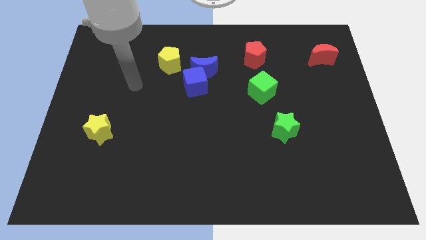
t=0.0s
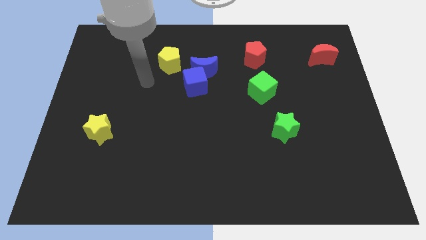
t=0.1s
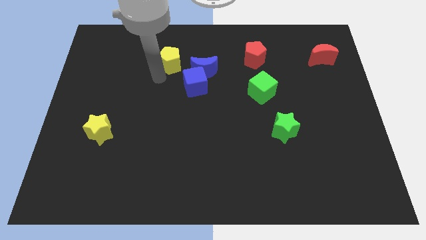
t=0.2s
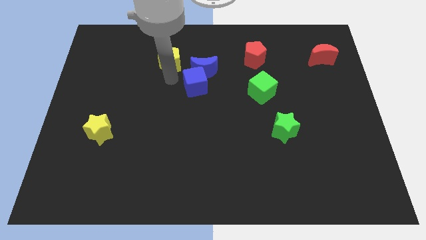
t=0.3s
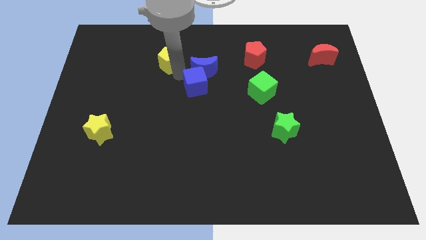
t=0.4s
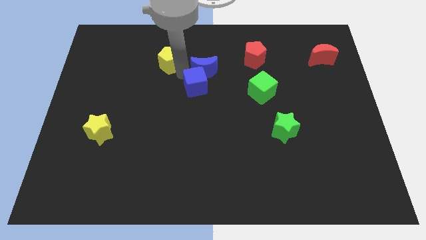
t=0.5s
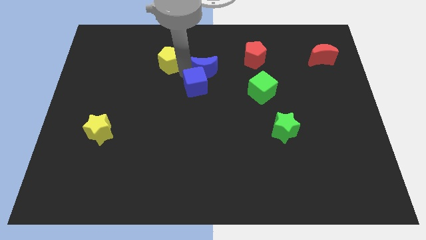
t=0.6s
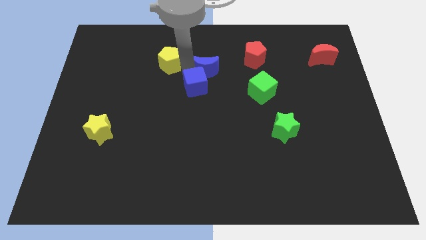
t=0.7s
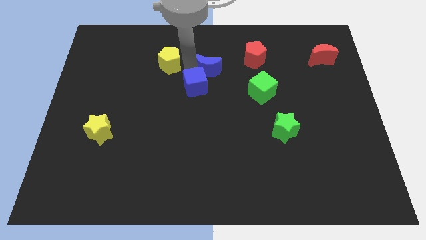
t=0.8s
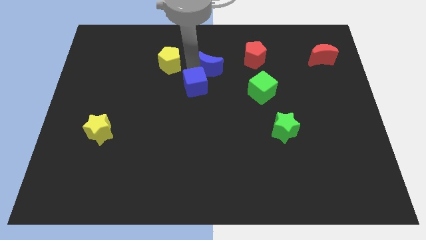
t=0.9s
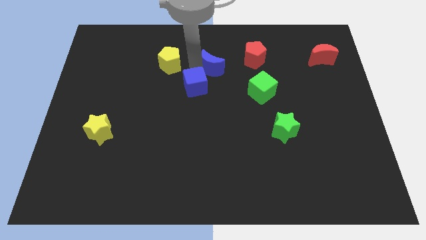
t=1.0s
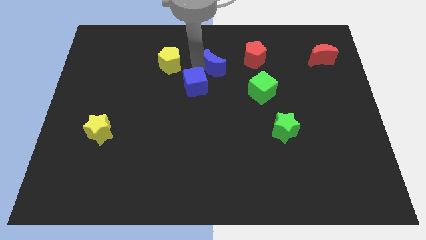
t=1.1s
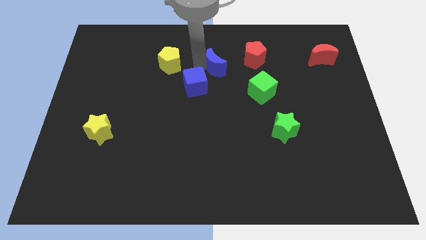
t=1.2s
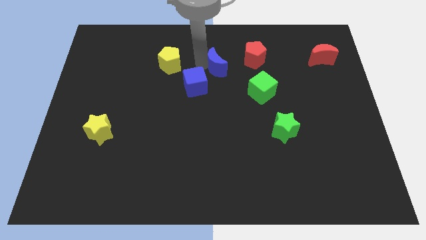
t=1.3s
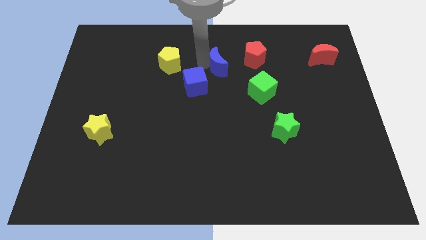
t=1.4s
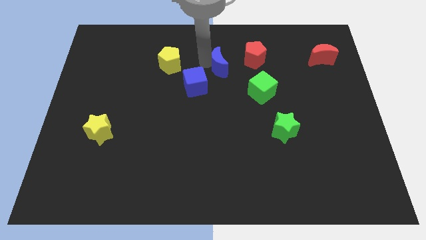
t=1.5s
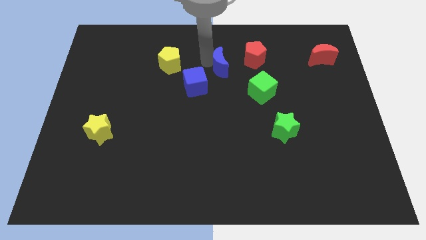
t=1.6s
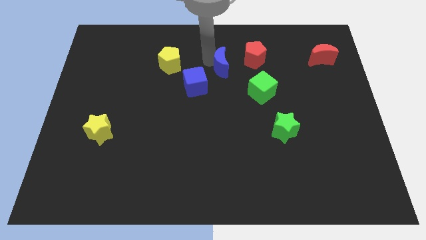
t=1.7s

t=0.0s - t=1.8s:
separate the blue moon from the blue cube and yellow pentagon

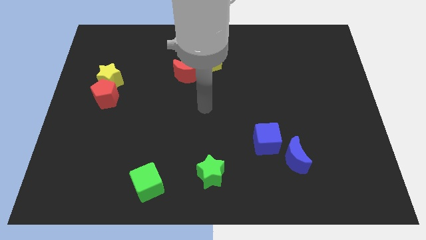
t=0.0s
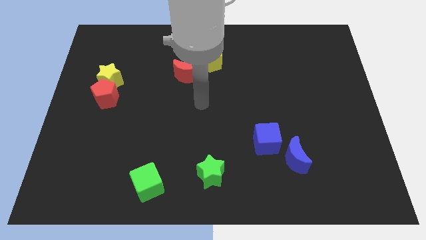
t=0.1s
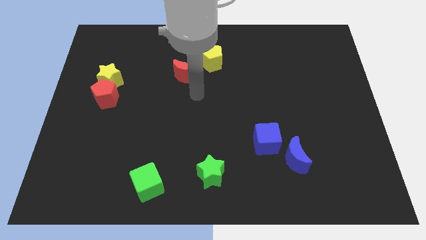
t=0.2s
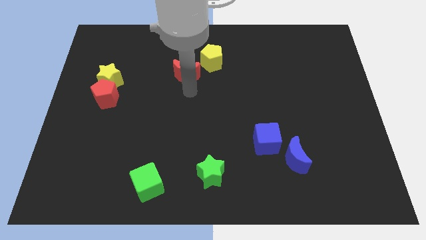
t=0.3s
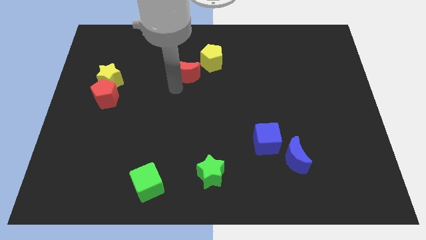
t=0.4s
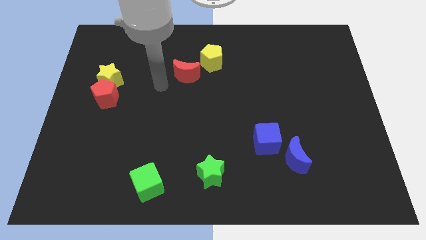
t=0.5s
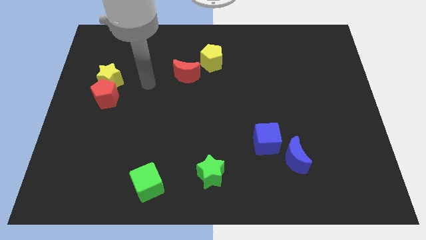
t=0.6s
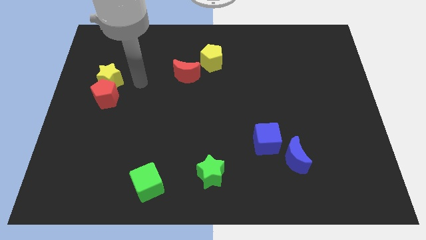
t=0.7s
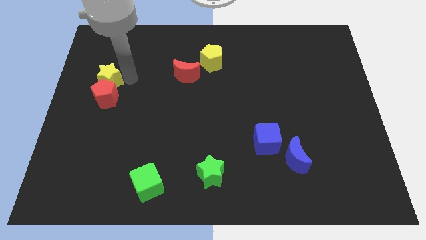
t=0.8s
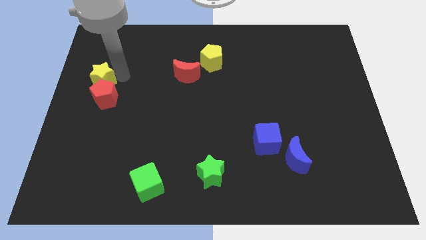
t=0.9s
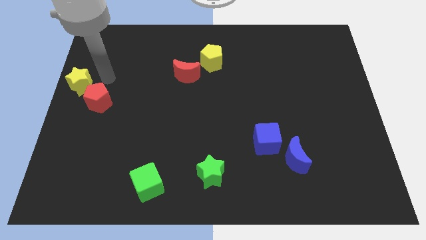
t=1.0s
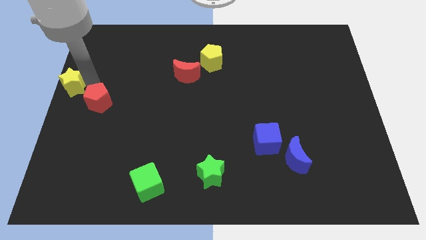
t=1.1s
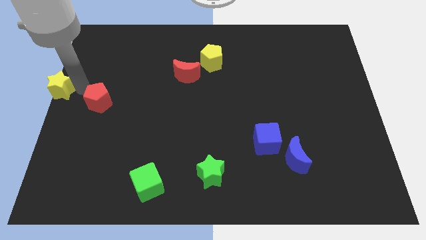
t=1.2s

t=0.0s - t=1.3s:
move the red pentagon away from the yellow star

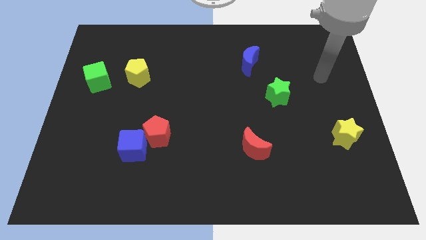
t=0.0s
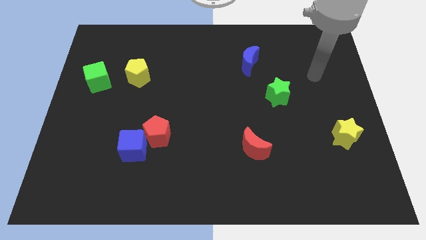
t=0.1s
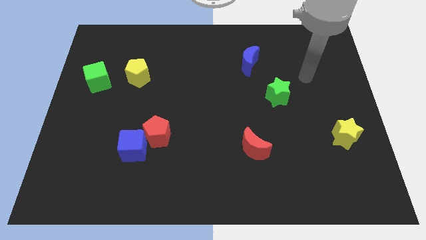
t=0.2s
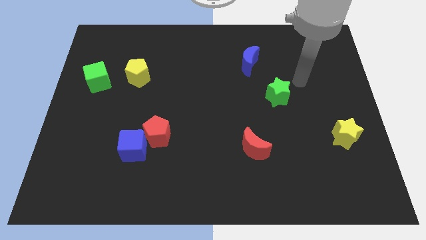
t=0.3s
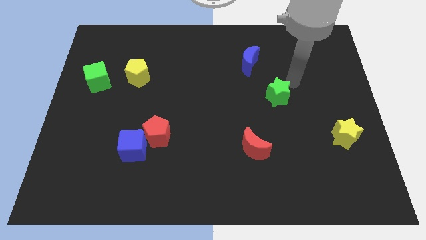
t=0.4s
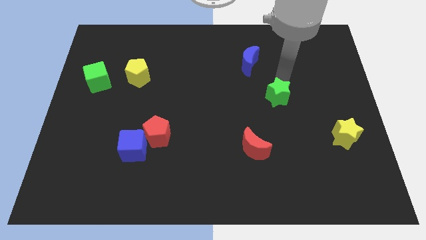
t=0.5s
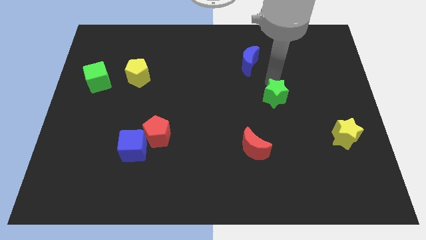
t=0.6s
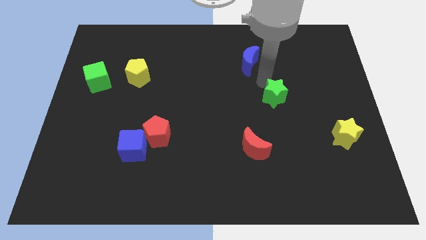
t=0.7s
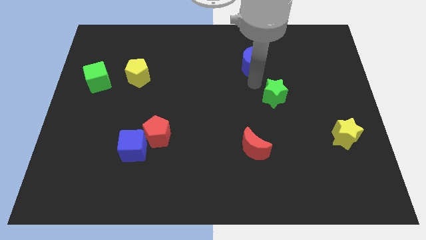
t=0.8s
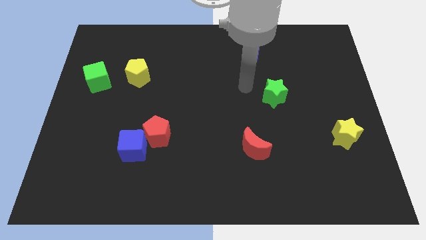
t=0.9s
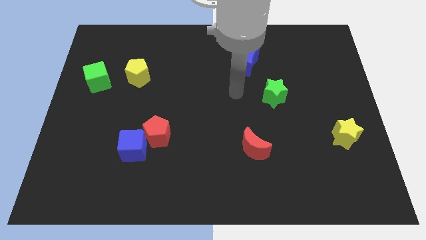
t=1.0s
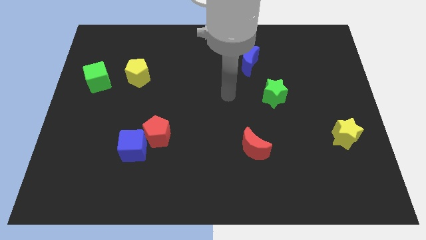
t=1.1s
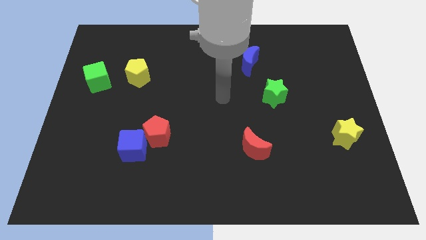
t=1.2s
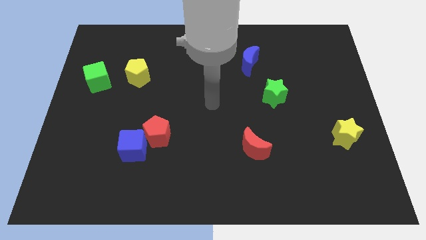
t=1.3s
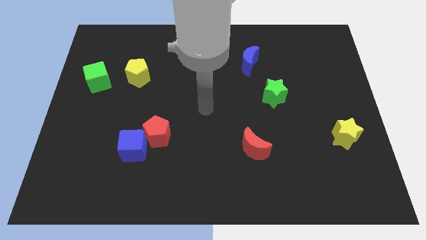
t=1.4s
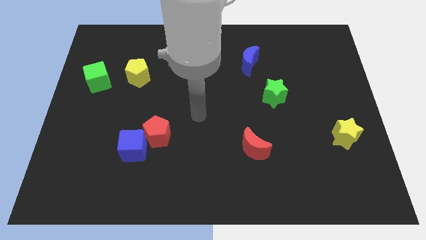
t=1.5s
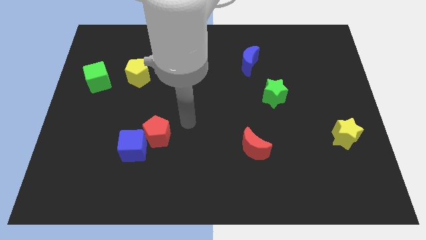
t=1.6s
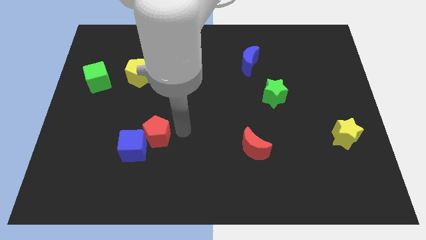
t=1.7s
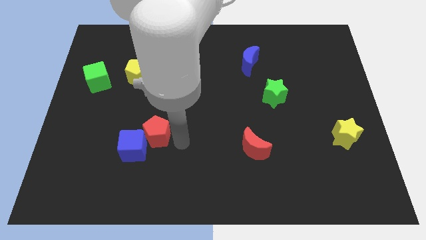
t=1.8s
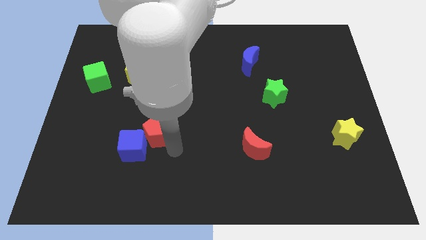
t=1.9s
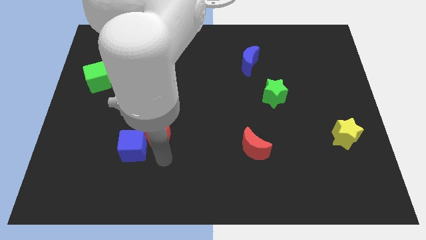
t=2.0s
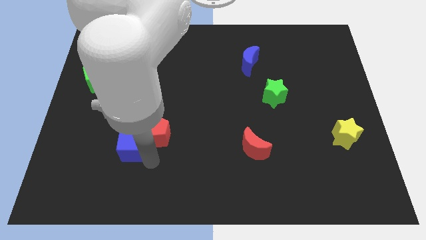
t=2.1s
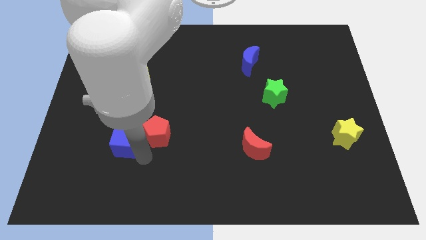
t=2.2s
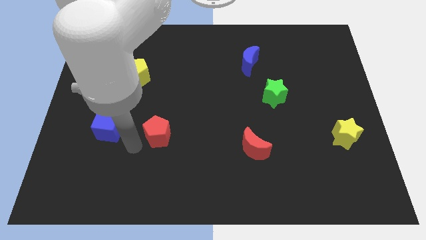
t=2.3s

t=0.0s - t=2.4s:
move the red pentagon away from the blue cube

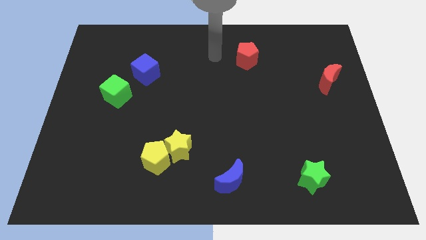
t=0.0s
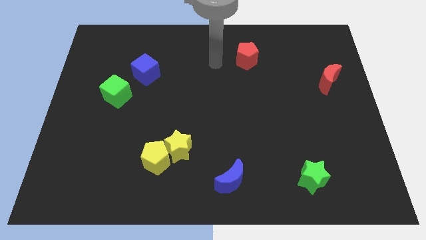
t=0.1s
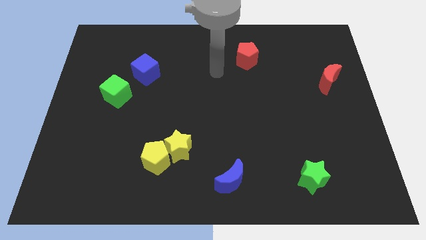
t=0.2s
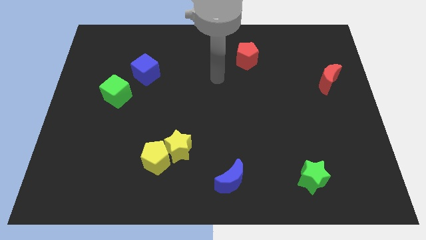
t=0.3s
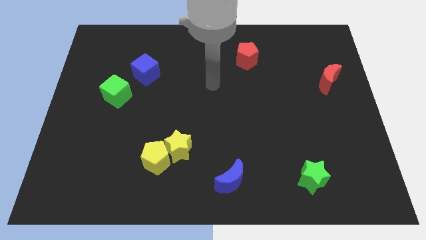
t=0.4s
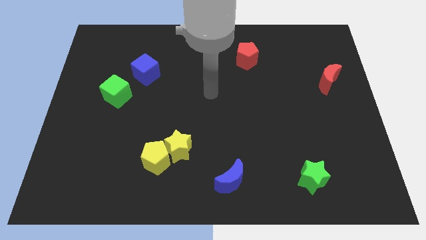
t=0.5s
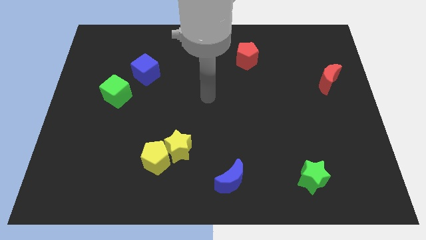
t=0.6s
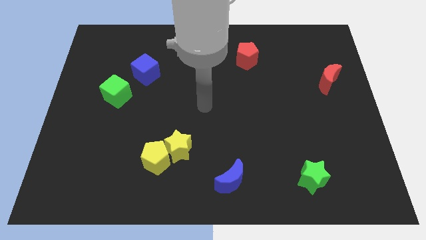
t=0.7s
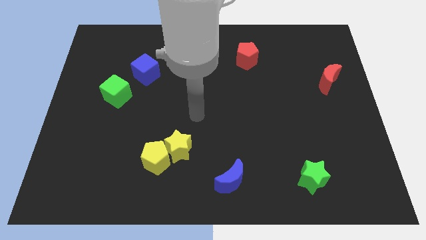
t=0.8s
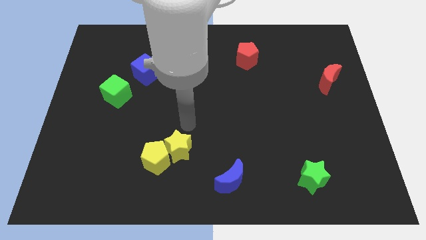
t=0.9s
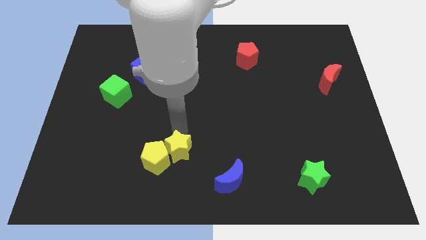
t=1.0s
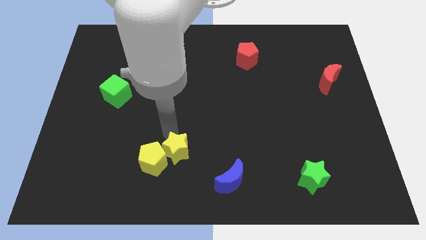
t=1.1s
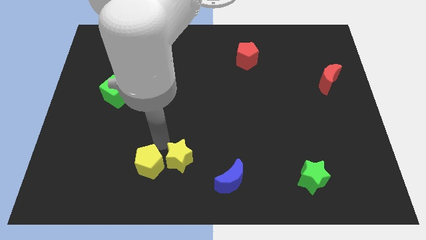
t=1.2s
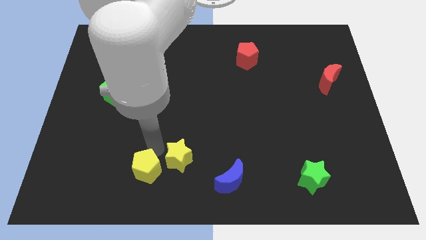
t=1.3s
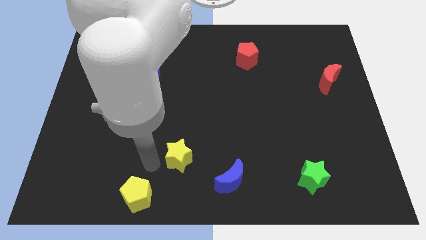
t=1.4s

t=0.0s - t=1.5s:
separate the yellow star from the yellow pentagon

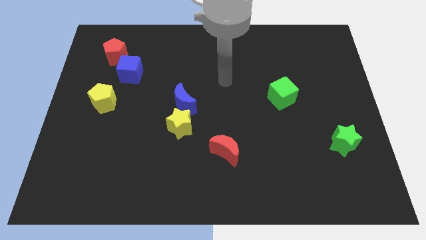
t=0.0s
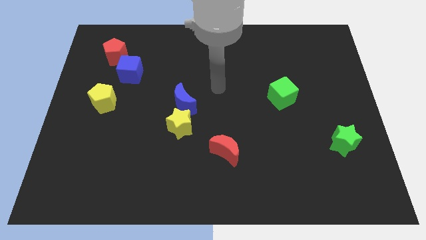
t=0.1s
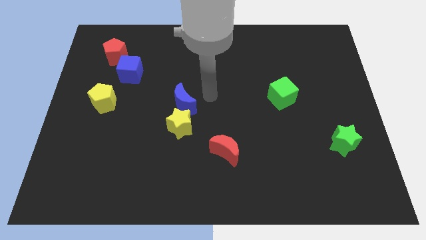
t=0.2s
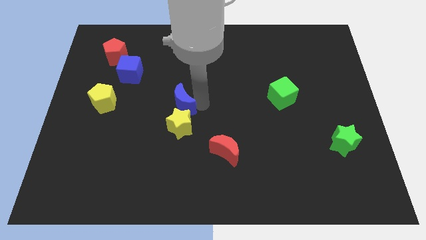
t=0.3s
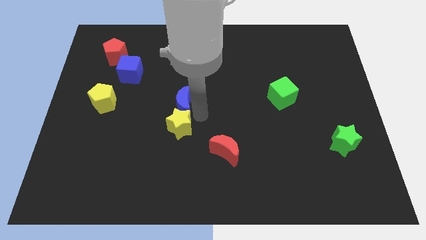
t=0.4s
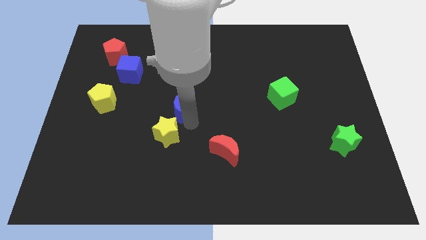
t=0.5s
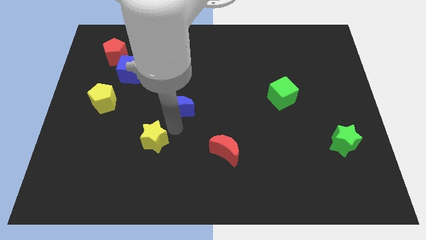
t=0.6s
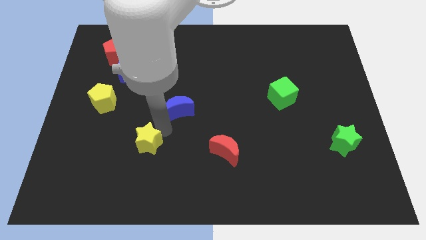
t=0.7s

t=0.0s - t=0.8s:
pull the blue moon apart from the yellow star

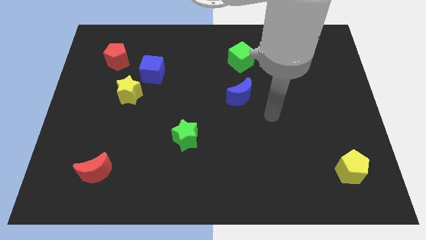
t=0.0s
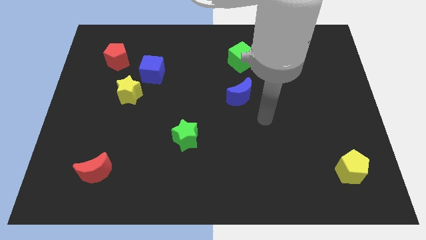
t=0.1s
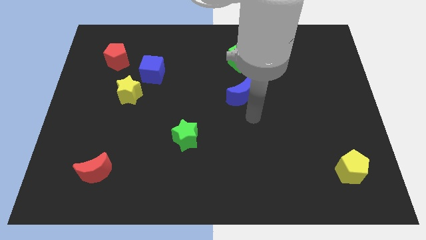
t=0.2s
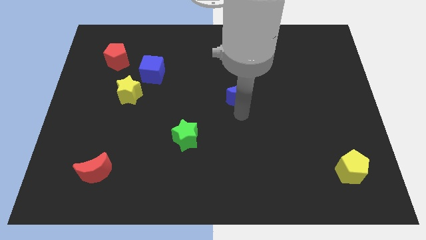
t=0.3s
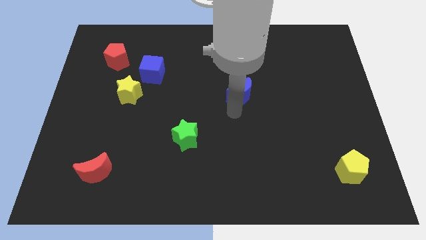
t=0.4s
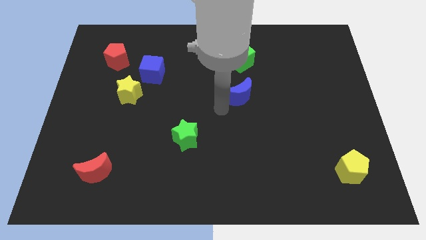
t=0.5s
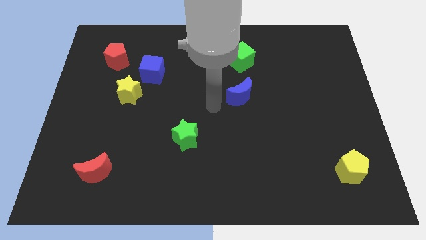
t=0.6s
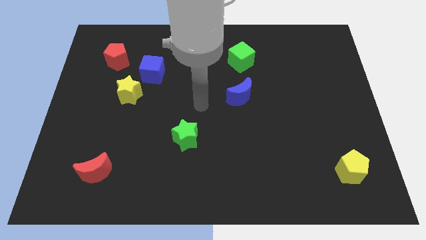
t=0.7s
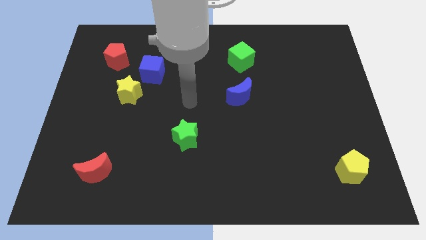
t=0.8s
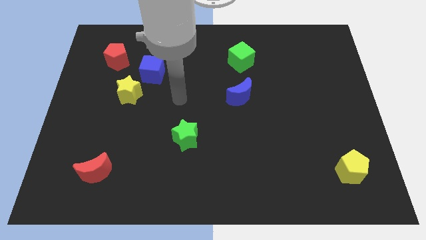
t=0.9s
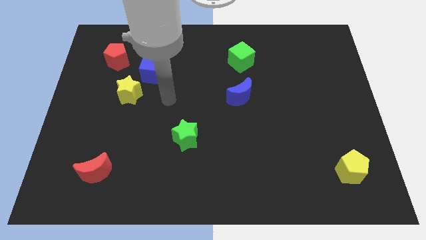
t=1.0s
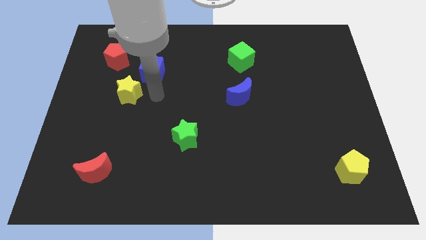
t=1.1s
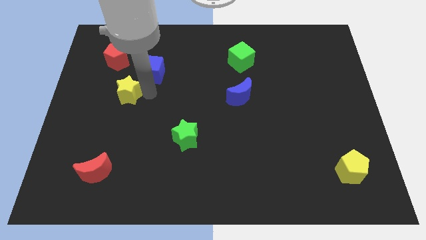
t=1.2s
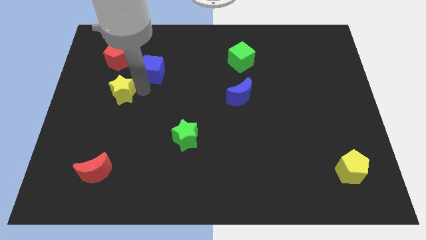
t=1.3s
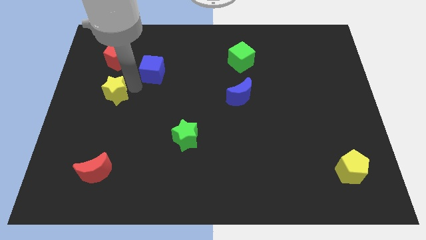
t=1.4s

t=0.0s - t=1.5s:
move the blue cube away from the yellow star
